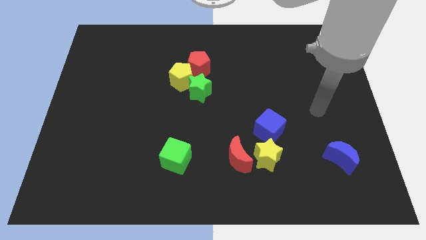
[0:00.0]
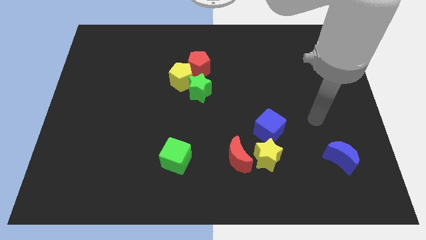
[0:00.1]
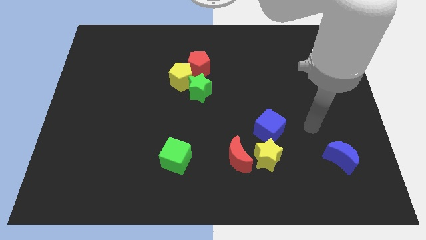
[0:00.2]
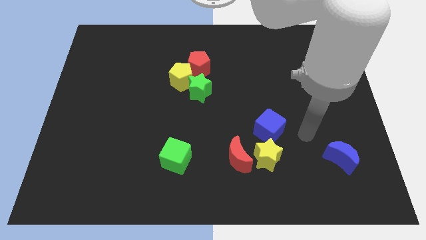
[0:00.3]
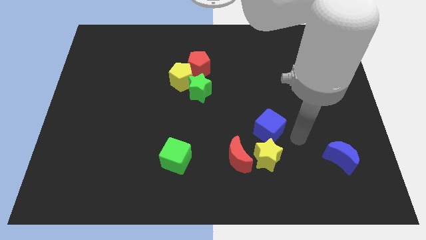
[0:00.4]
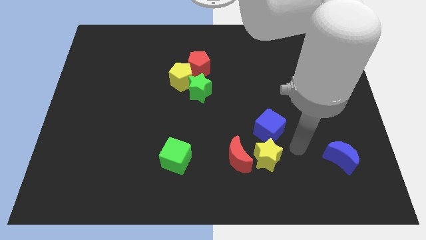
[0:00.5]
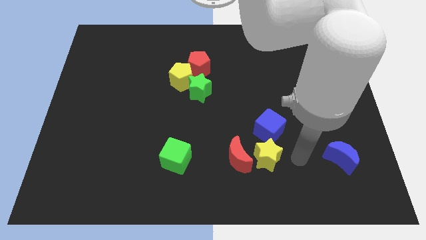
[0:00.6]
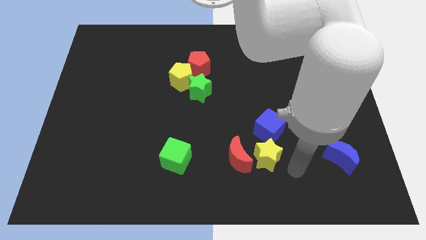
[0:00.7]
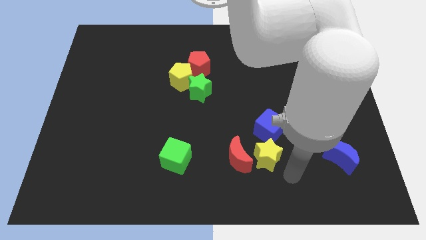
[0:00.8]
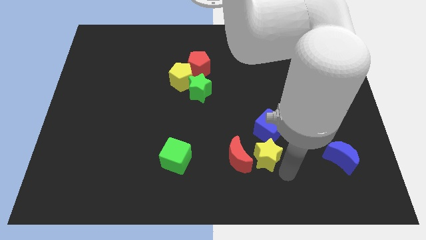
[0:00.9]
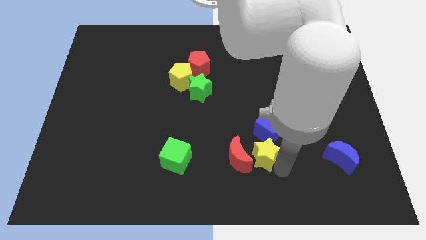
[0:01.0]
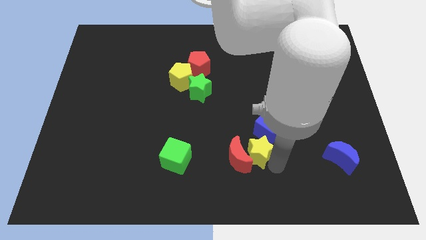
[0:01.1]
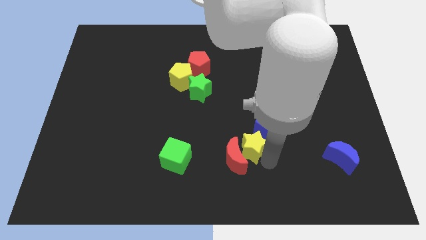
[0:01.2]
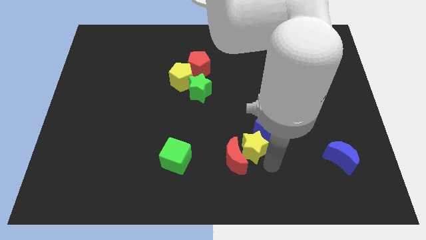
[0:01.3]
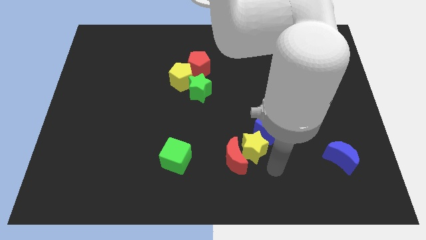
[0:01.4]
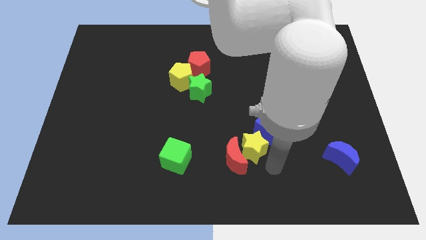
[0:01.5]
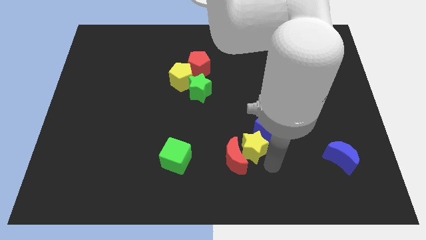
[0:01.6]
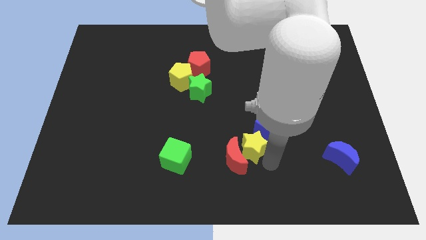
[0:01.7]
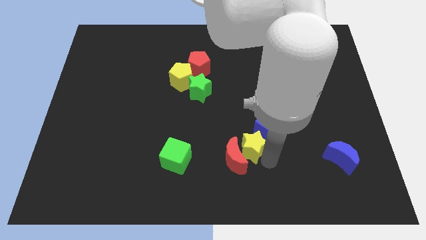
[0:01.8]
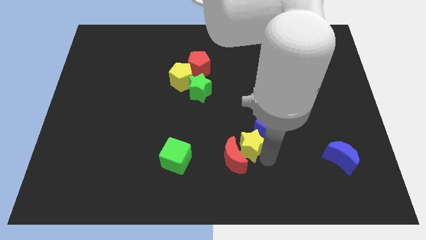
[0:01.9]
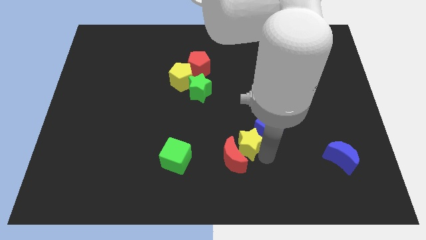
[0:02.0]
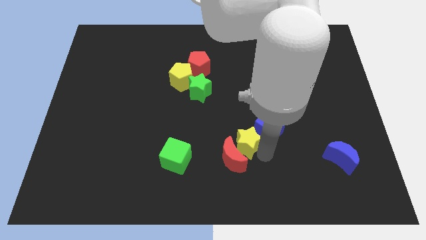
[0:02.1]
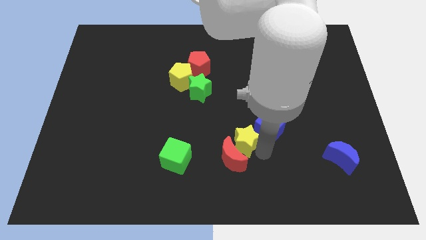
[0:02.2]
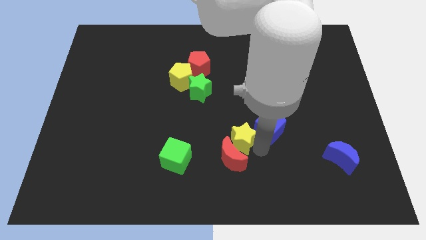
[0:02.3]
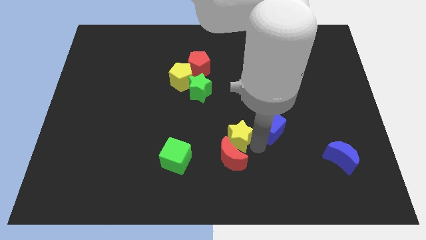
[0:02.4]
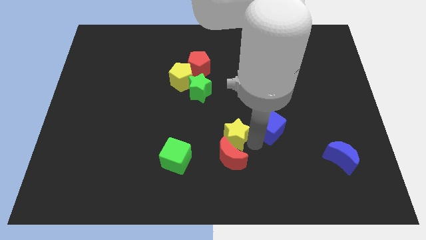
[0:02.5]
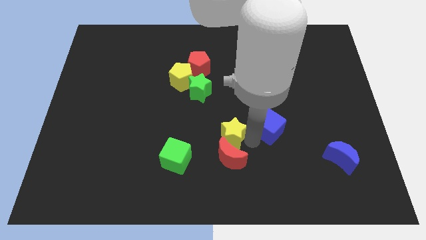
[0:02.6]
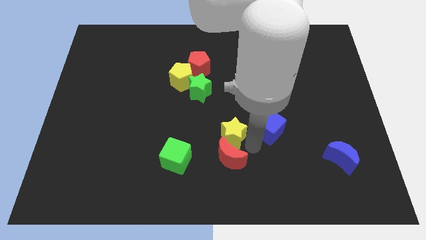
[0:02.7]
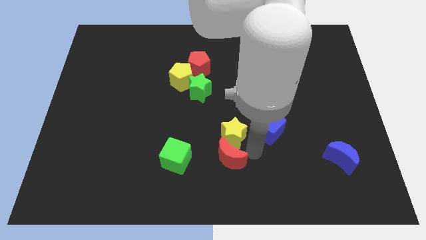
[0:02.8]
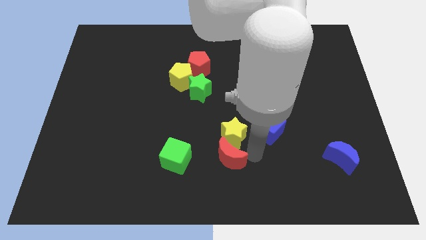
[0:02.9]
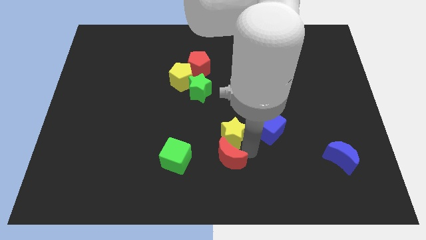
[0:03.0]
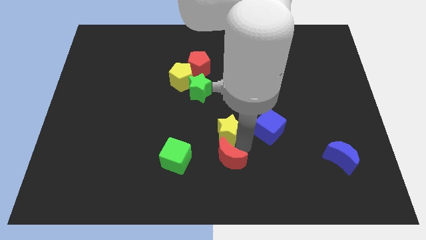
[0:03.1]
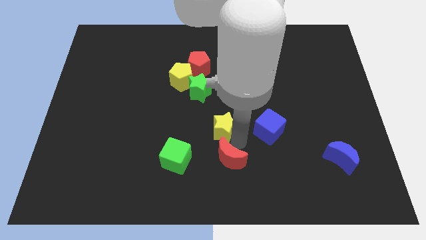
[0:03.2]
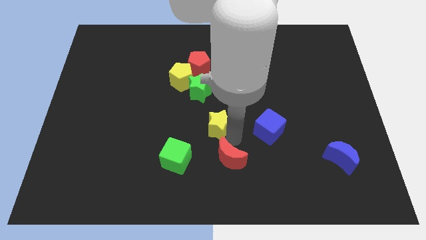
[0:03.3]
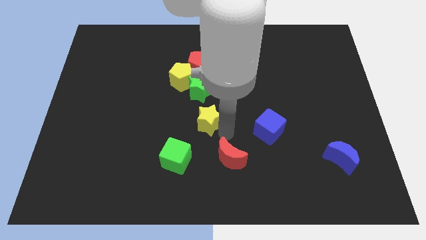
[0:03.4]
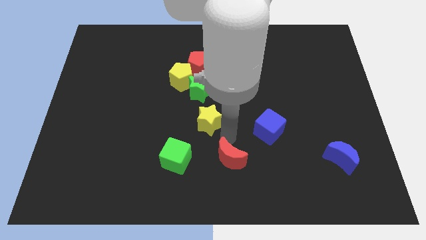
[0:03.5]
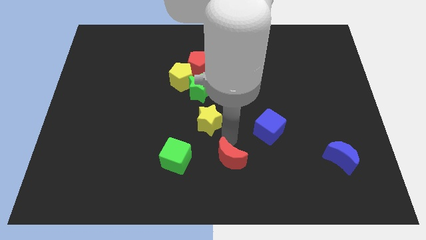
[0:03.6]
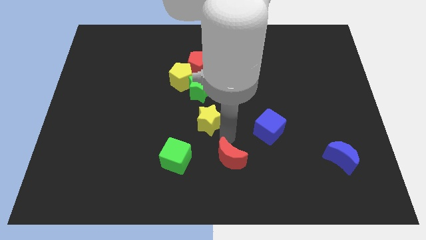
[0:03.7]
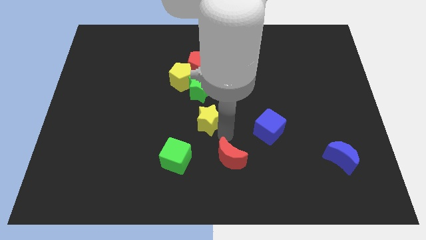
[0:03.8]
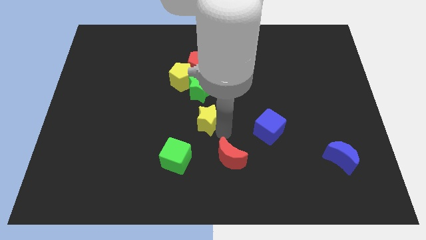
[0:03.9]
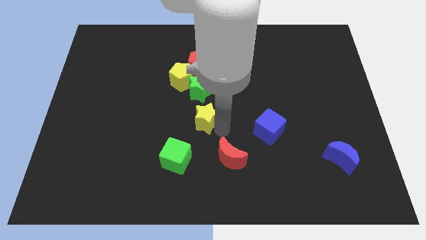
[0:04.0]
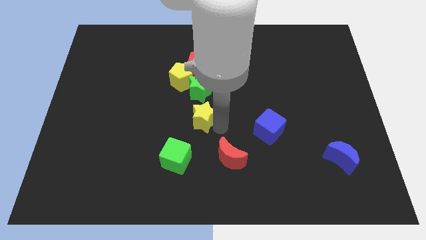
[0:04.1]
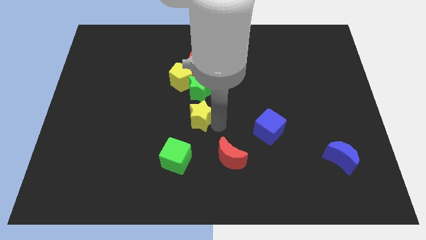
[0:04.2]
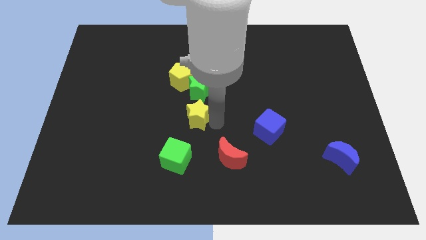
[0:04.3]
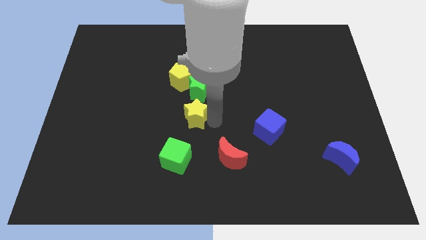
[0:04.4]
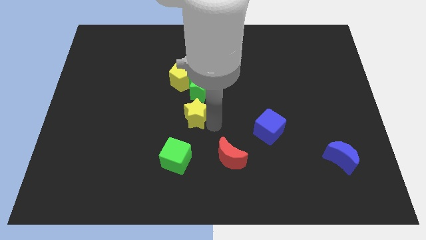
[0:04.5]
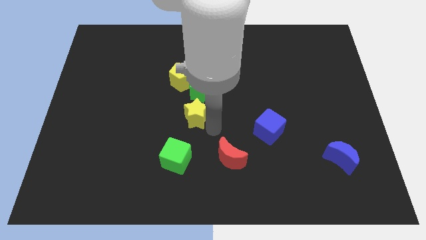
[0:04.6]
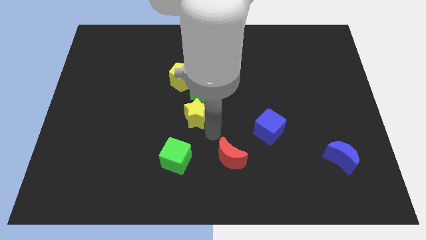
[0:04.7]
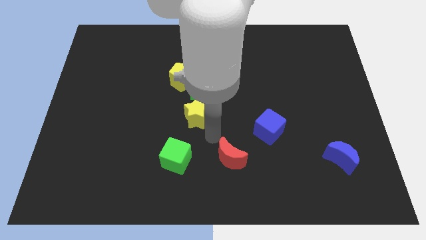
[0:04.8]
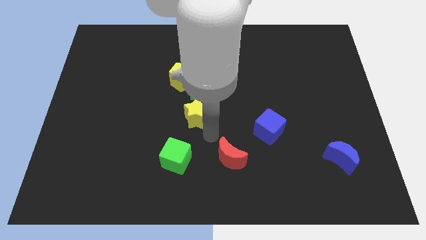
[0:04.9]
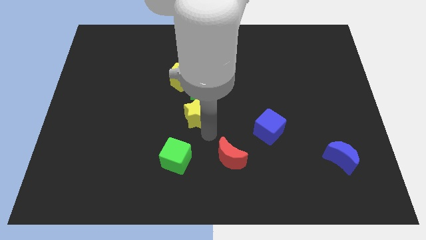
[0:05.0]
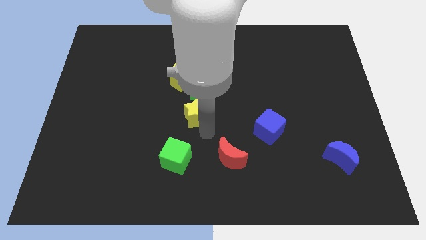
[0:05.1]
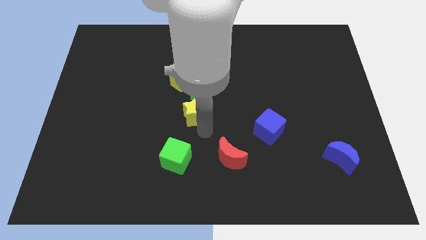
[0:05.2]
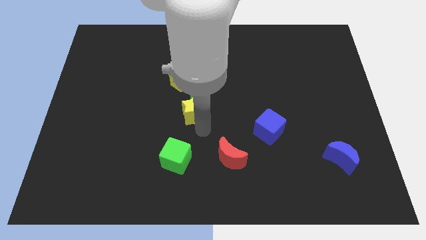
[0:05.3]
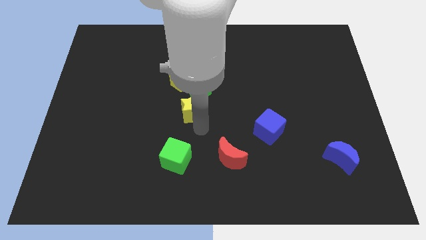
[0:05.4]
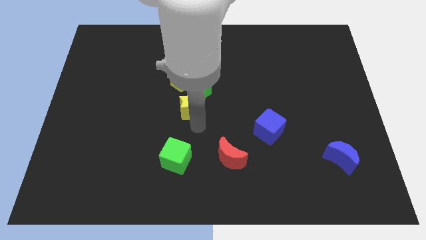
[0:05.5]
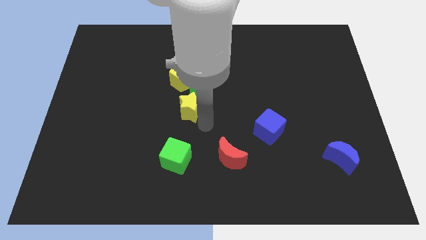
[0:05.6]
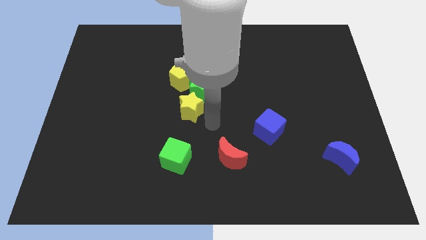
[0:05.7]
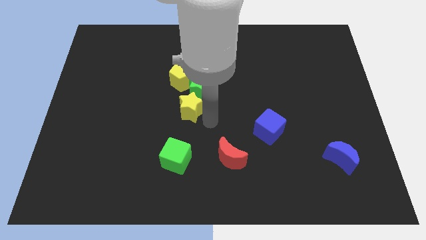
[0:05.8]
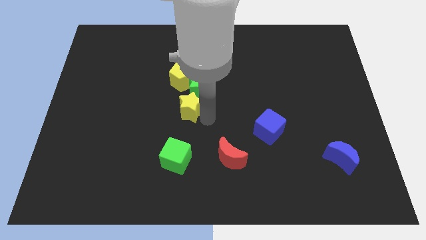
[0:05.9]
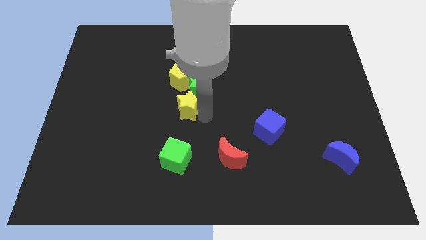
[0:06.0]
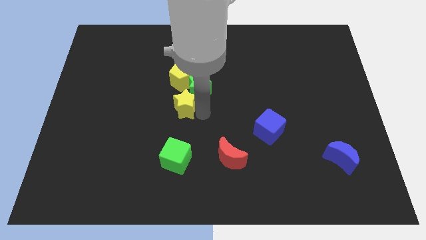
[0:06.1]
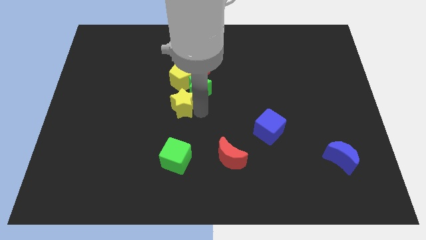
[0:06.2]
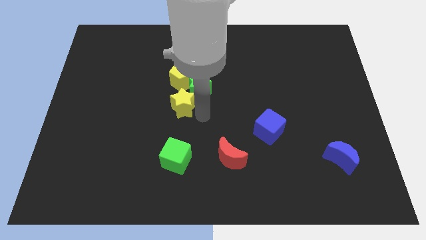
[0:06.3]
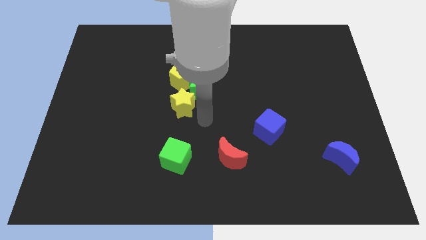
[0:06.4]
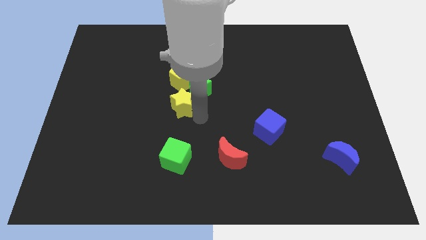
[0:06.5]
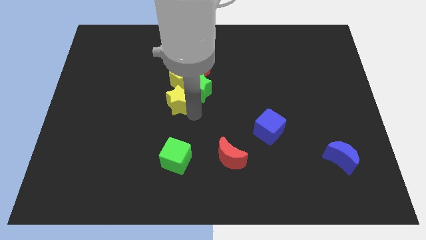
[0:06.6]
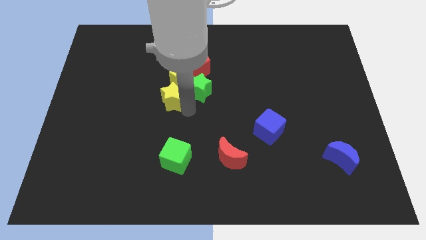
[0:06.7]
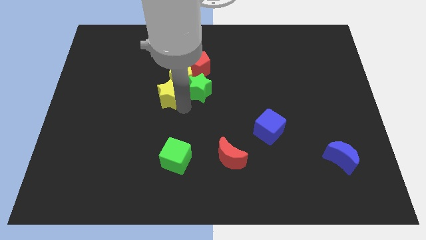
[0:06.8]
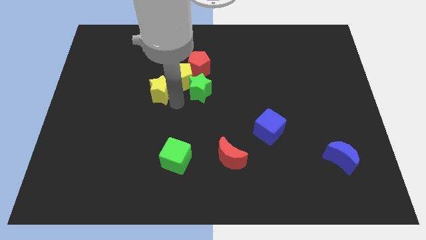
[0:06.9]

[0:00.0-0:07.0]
put the yellow star to the left of the yellow pentagon

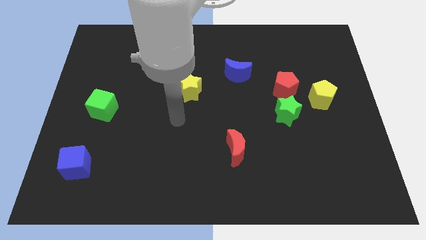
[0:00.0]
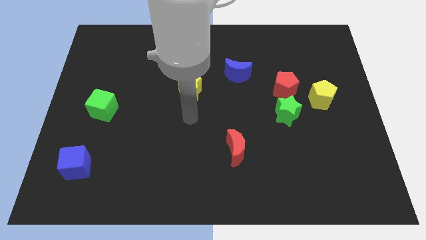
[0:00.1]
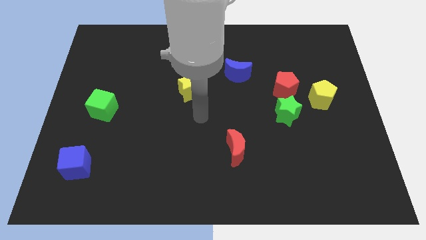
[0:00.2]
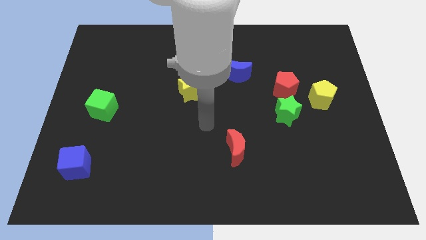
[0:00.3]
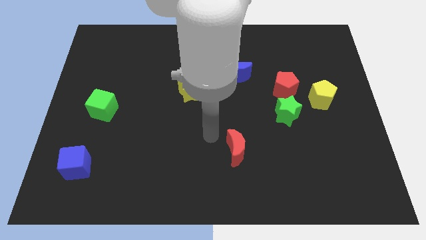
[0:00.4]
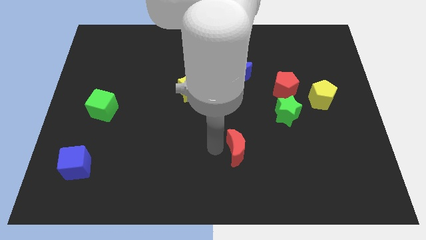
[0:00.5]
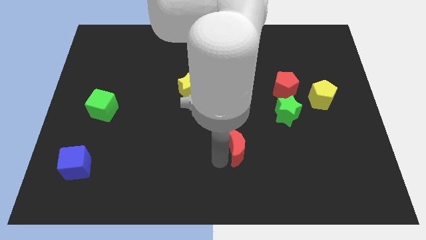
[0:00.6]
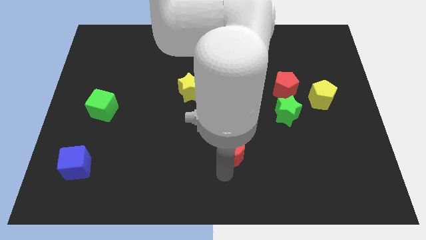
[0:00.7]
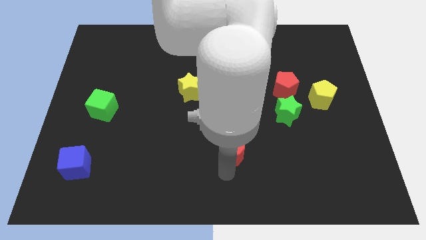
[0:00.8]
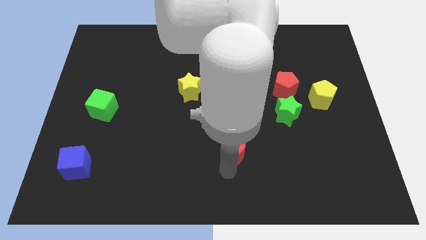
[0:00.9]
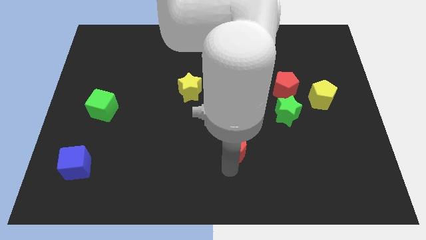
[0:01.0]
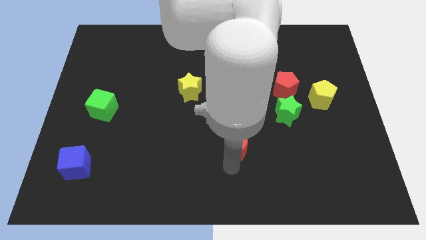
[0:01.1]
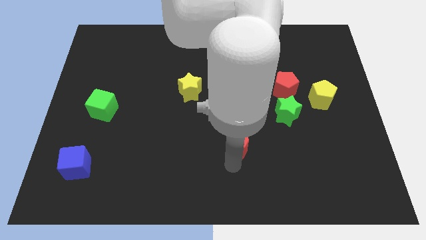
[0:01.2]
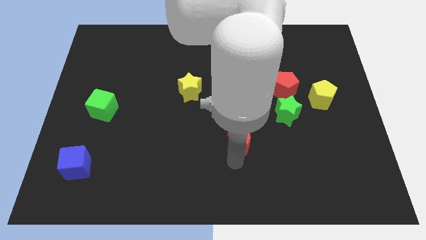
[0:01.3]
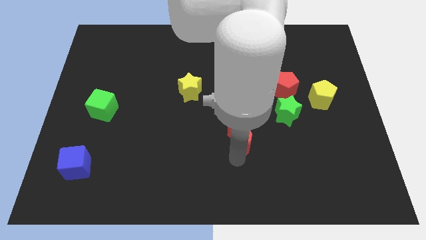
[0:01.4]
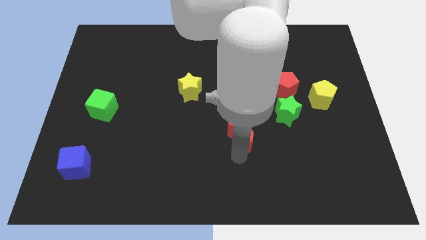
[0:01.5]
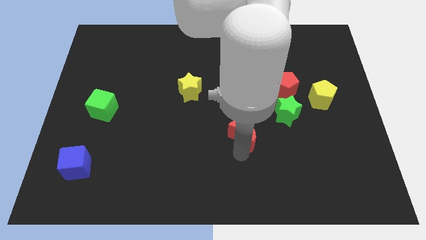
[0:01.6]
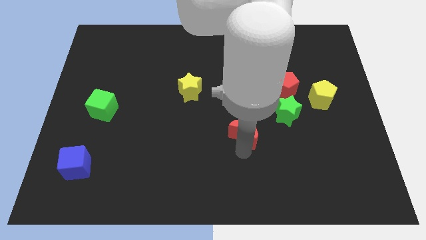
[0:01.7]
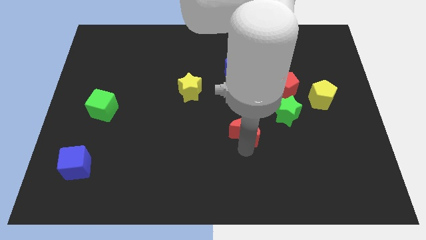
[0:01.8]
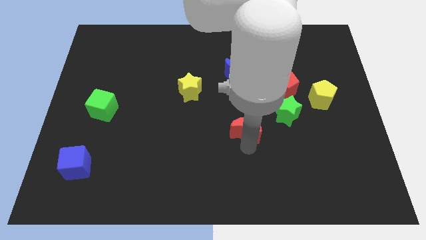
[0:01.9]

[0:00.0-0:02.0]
put the red moon to the left side of the green star
